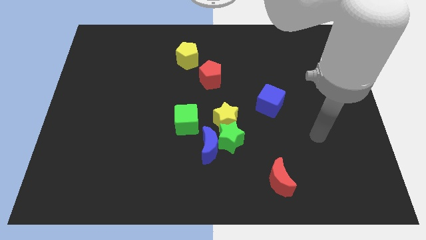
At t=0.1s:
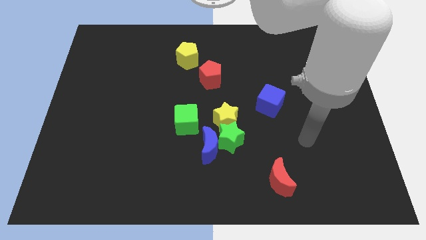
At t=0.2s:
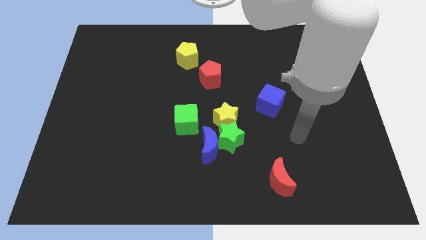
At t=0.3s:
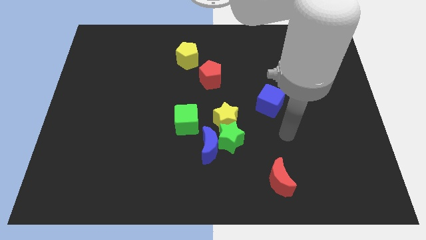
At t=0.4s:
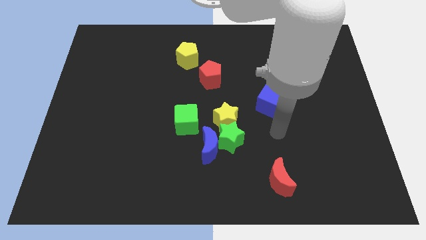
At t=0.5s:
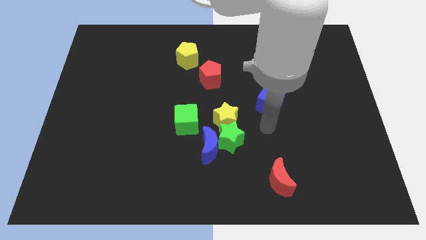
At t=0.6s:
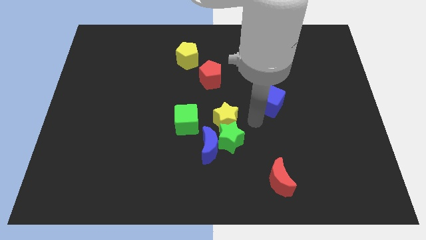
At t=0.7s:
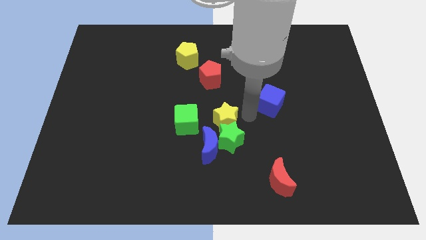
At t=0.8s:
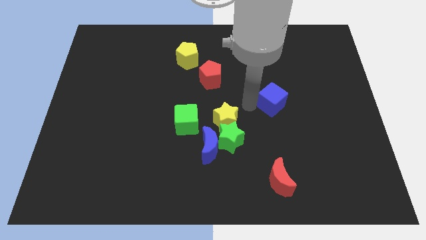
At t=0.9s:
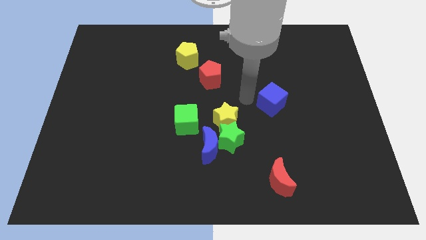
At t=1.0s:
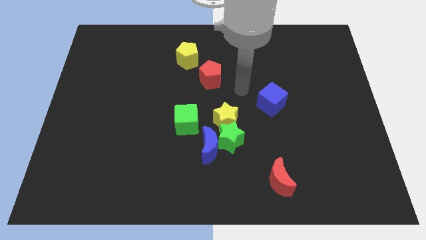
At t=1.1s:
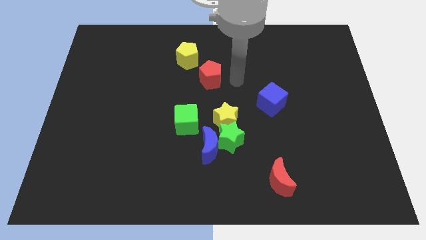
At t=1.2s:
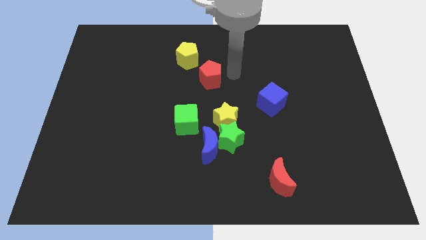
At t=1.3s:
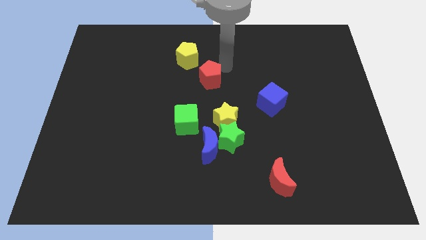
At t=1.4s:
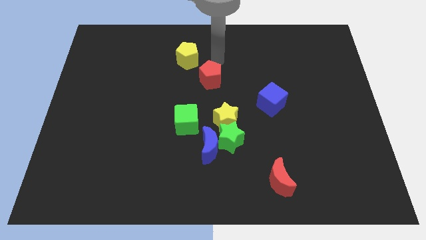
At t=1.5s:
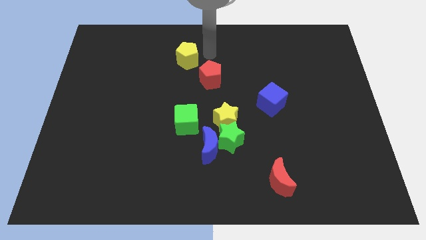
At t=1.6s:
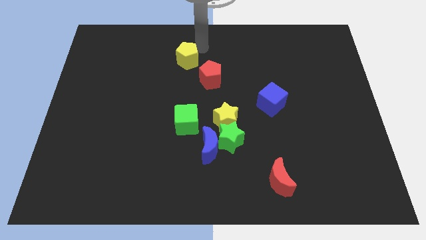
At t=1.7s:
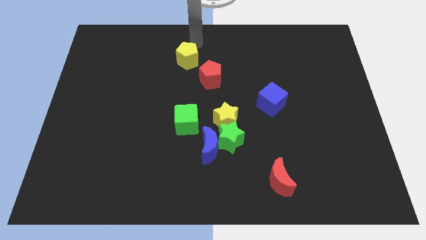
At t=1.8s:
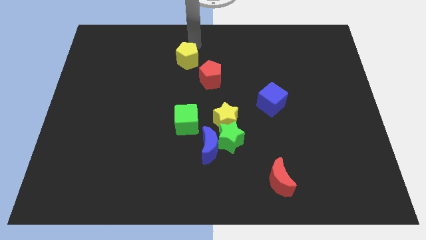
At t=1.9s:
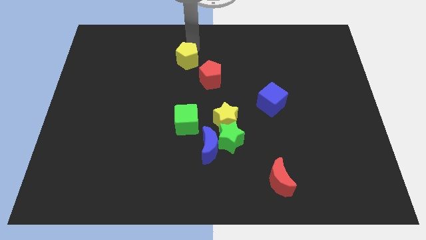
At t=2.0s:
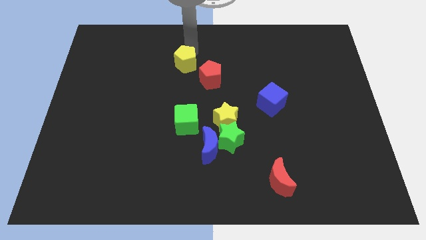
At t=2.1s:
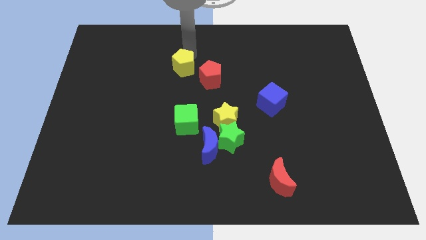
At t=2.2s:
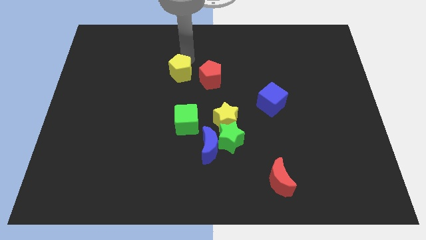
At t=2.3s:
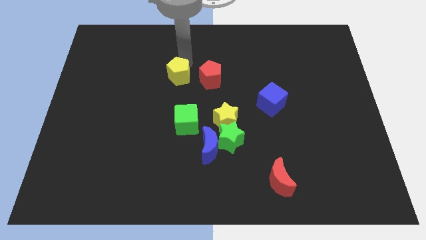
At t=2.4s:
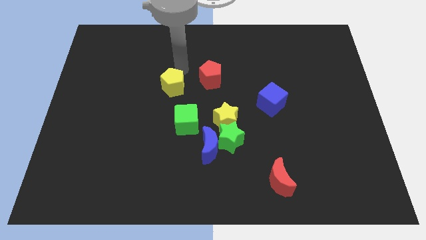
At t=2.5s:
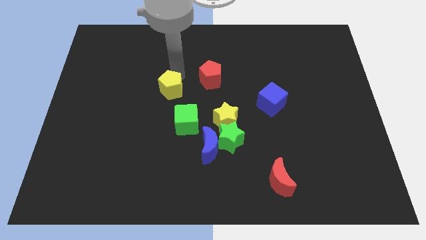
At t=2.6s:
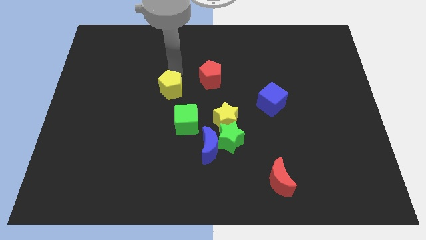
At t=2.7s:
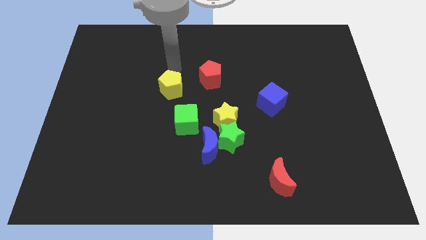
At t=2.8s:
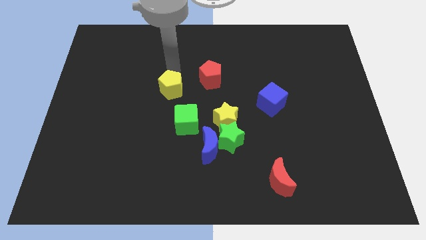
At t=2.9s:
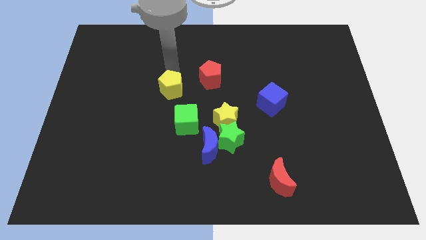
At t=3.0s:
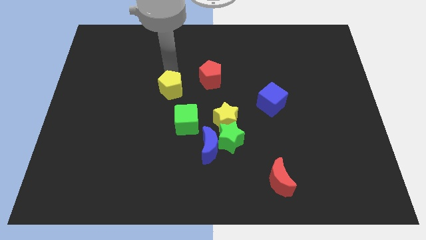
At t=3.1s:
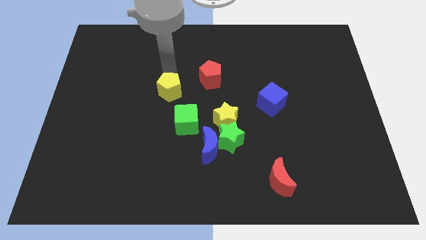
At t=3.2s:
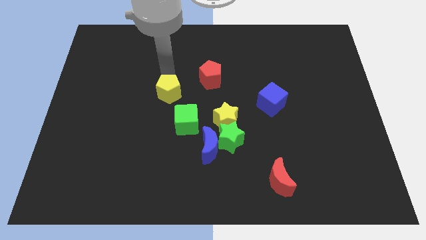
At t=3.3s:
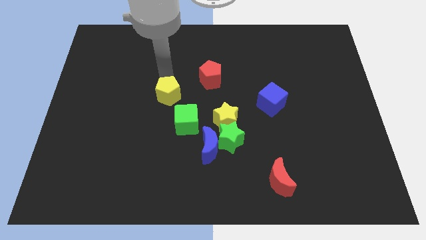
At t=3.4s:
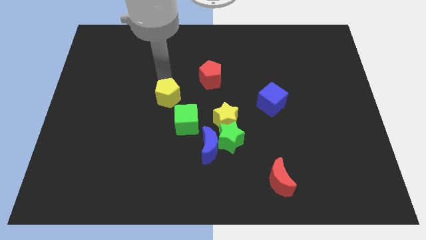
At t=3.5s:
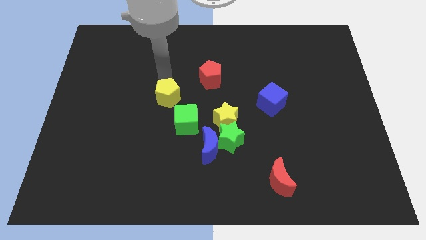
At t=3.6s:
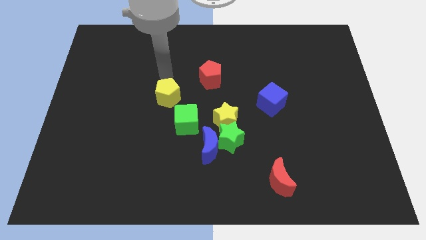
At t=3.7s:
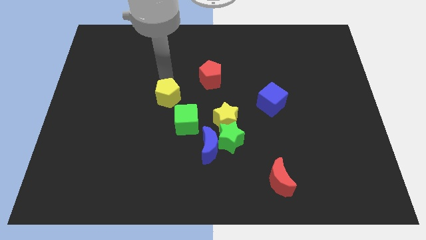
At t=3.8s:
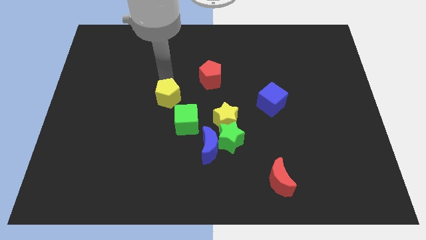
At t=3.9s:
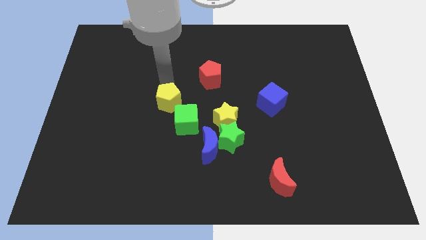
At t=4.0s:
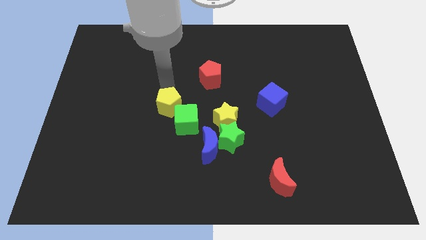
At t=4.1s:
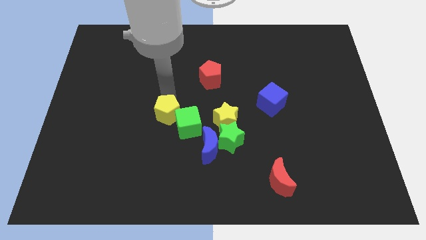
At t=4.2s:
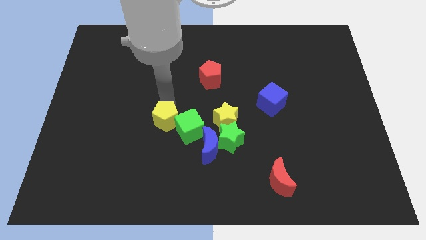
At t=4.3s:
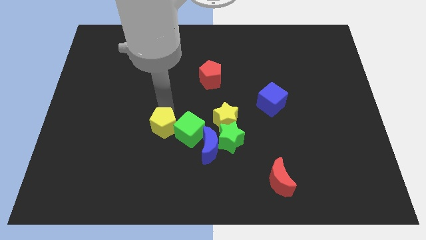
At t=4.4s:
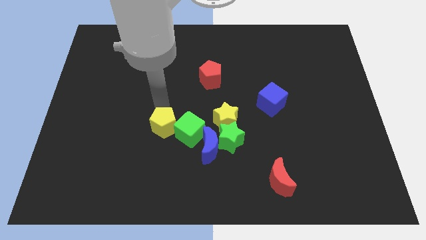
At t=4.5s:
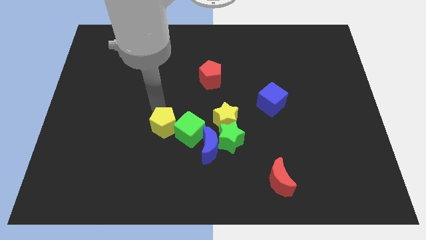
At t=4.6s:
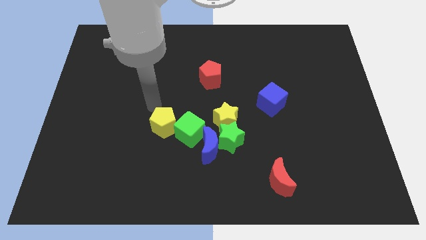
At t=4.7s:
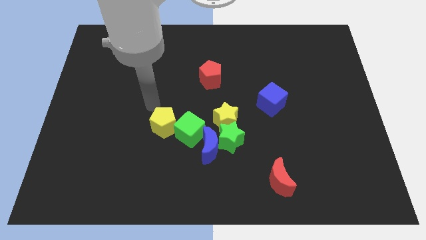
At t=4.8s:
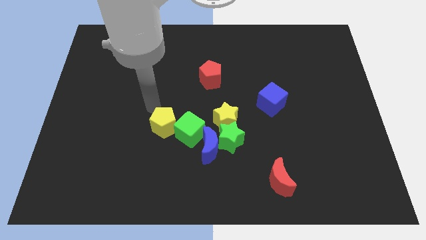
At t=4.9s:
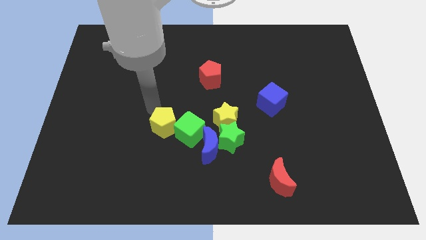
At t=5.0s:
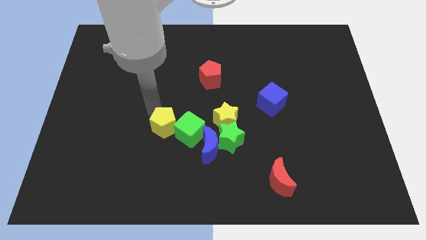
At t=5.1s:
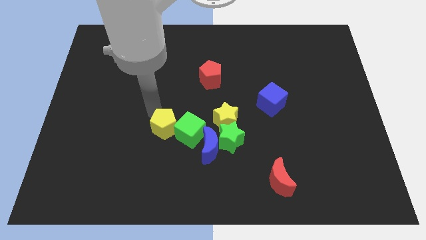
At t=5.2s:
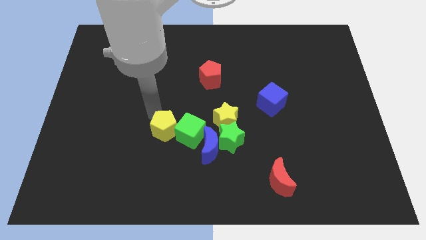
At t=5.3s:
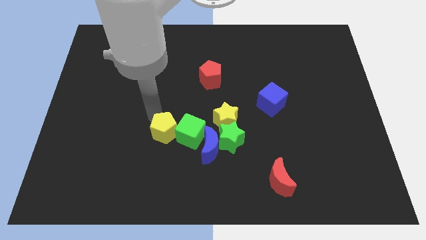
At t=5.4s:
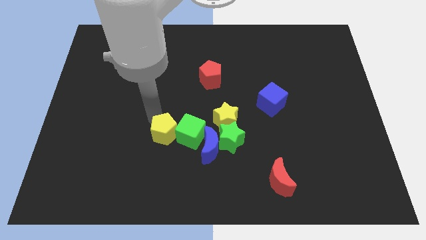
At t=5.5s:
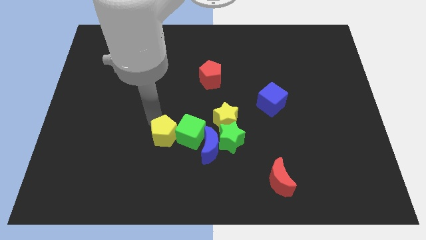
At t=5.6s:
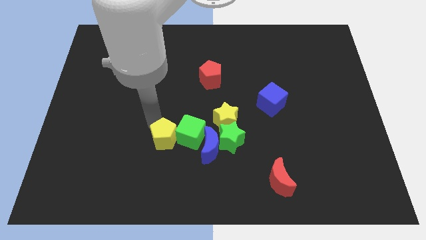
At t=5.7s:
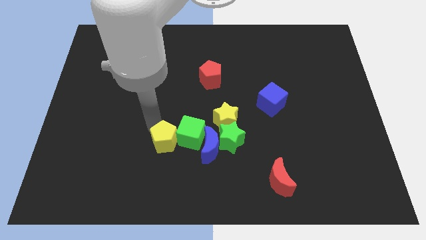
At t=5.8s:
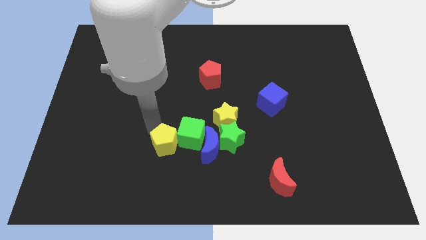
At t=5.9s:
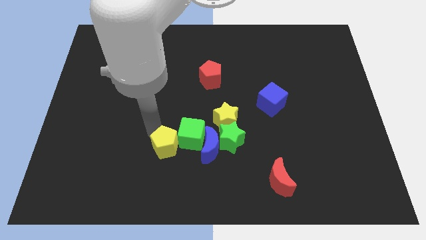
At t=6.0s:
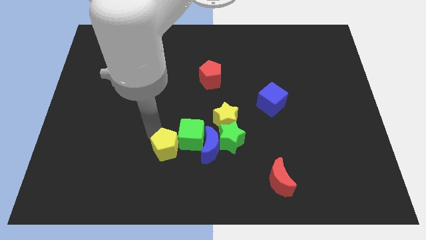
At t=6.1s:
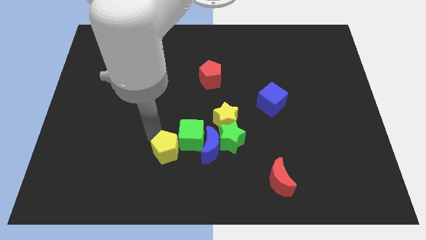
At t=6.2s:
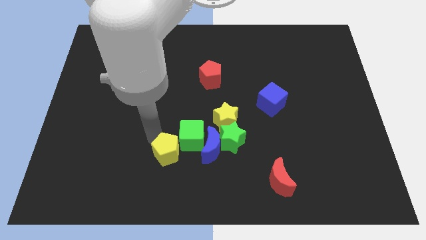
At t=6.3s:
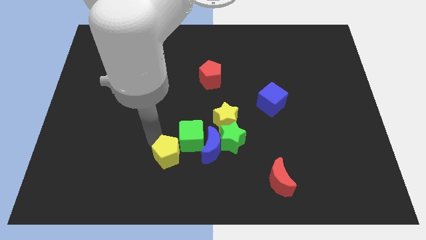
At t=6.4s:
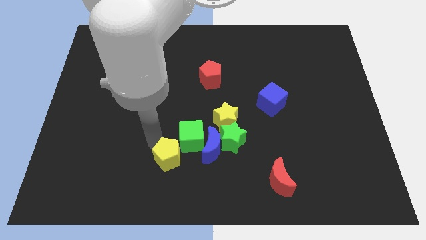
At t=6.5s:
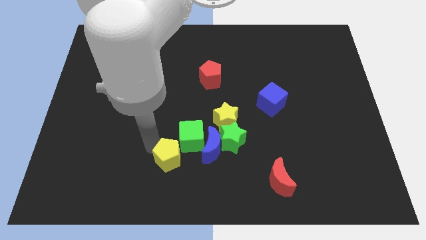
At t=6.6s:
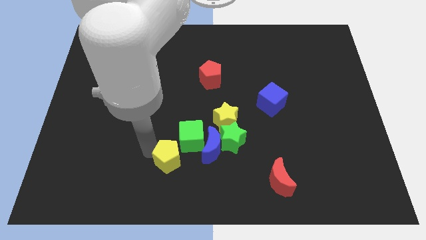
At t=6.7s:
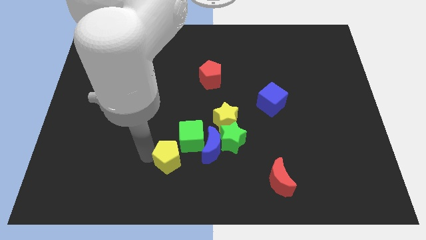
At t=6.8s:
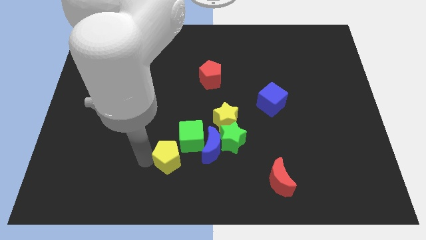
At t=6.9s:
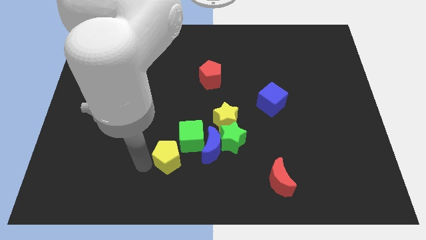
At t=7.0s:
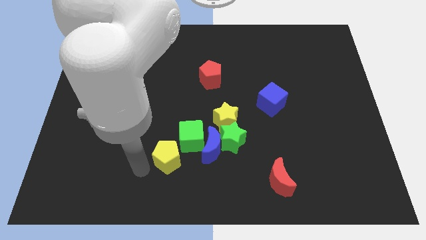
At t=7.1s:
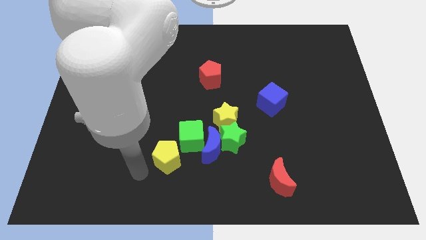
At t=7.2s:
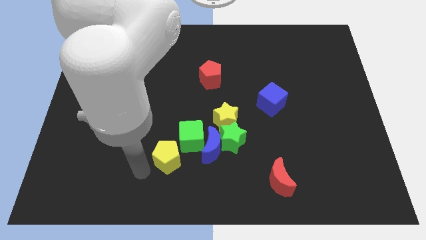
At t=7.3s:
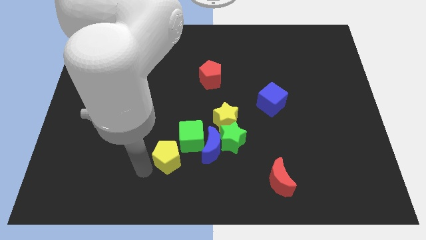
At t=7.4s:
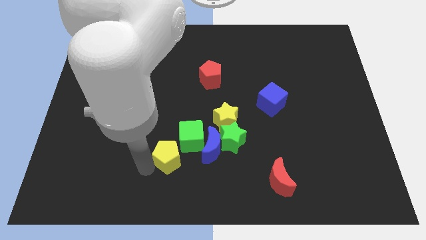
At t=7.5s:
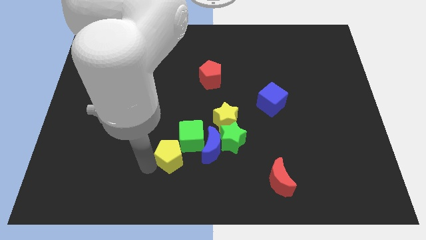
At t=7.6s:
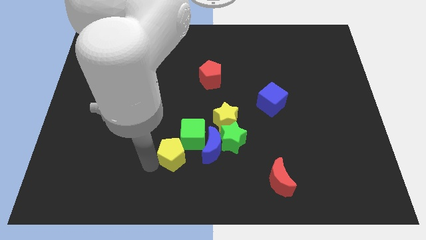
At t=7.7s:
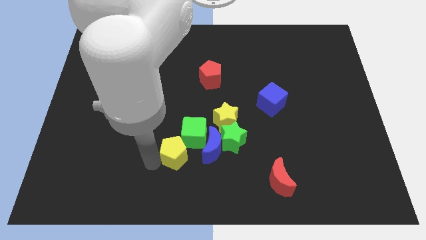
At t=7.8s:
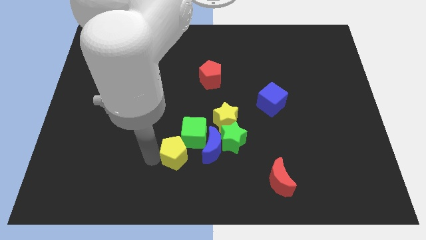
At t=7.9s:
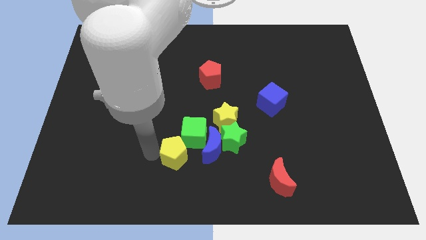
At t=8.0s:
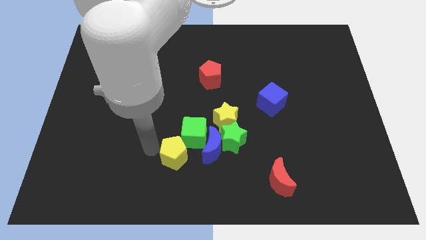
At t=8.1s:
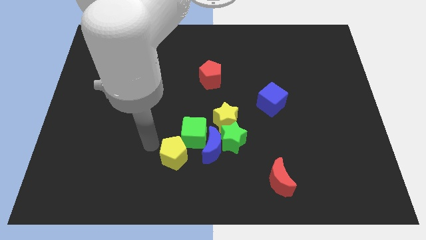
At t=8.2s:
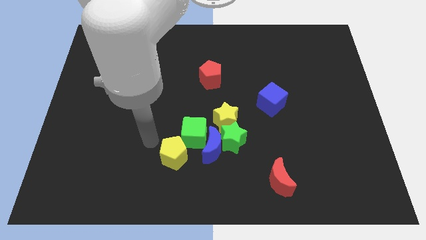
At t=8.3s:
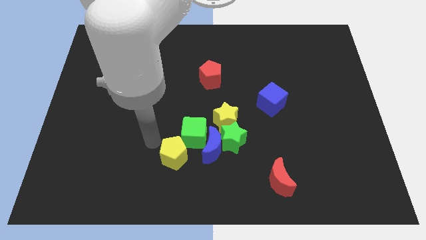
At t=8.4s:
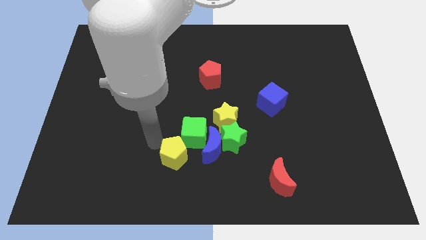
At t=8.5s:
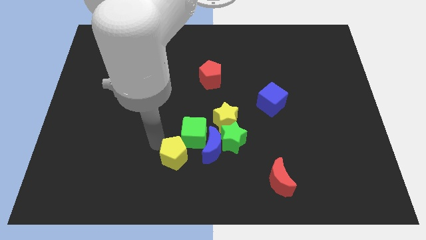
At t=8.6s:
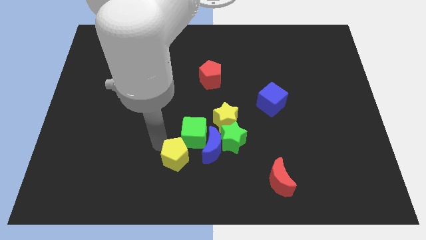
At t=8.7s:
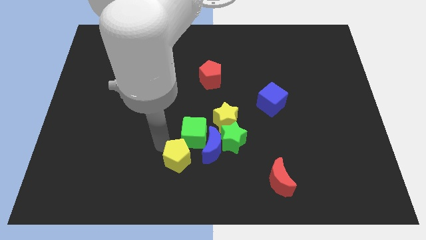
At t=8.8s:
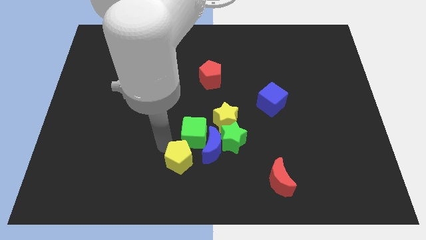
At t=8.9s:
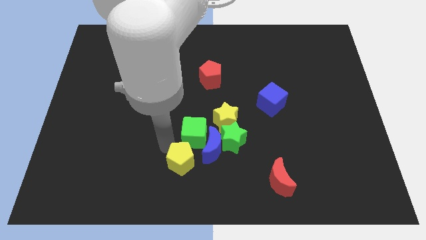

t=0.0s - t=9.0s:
slide the yellow pentagon to the bottom side
